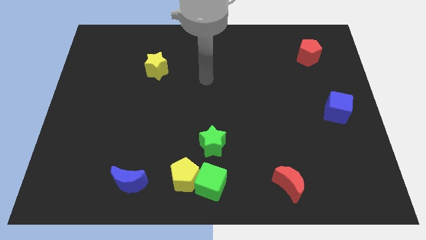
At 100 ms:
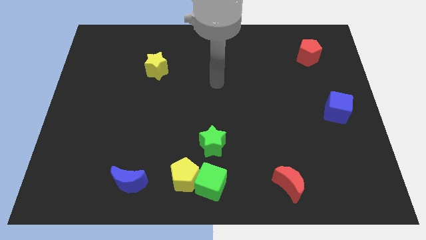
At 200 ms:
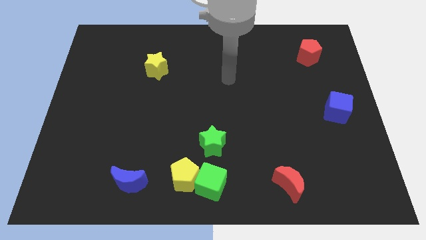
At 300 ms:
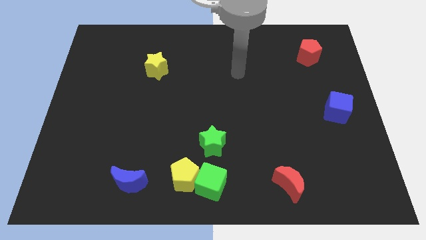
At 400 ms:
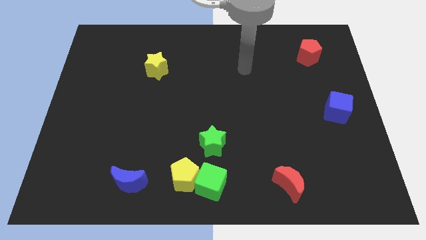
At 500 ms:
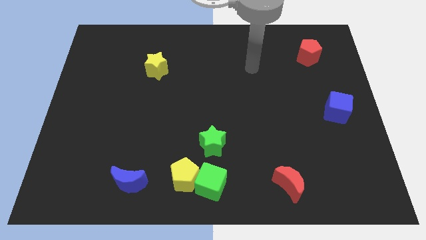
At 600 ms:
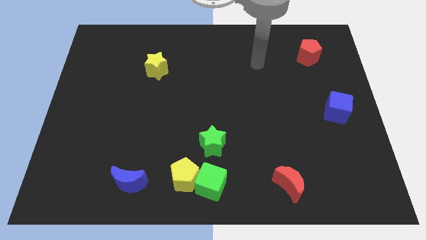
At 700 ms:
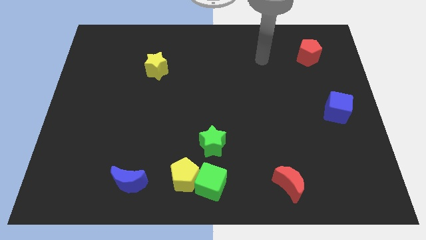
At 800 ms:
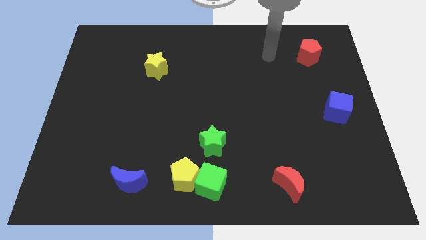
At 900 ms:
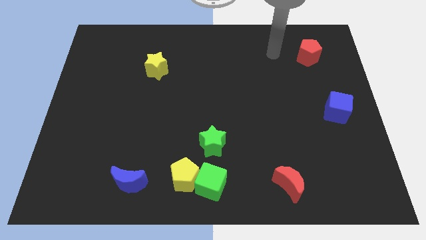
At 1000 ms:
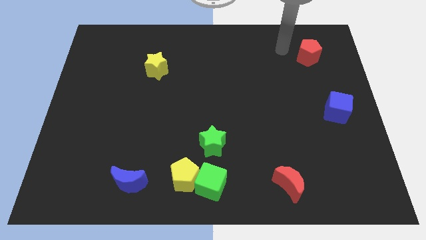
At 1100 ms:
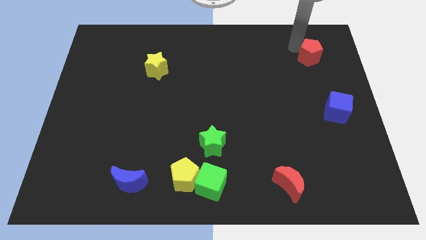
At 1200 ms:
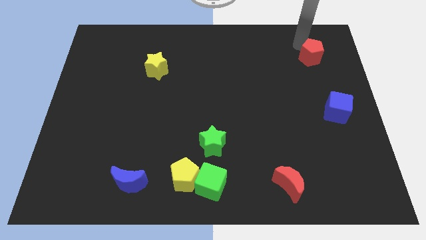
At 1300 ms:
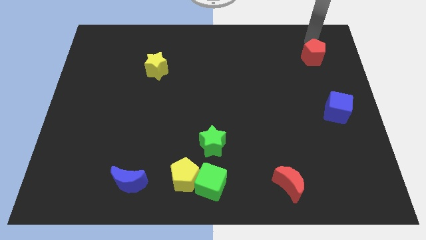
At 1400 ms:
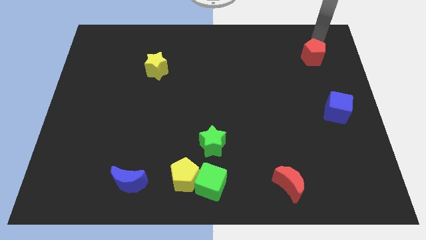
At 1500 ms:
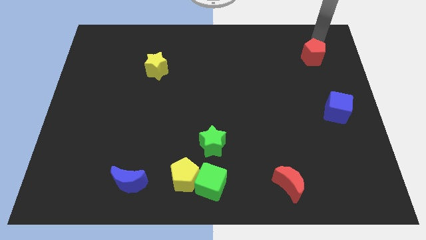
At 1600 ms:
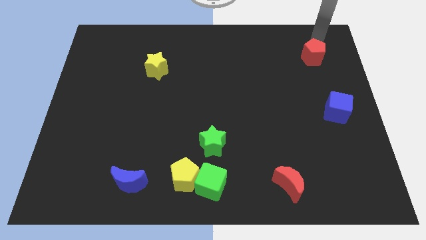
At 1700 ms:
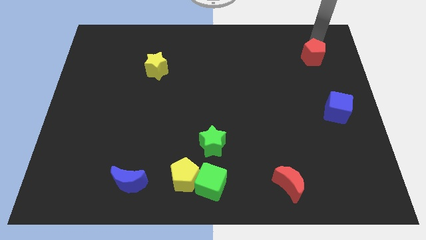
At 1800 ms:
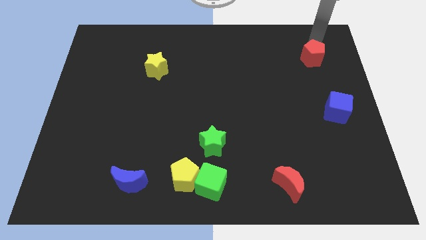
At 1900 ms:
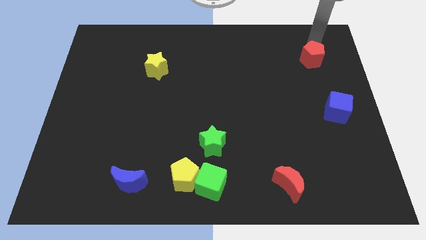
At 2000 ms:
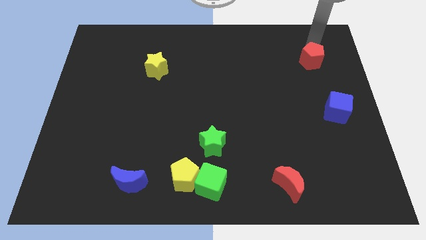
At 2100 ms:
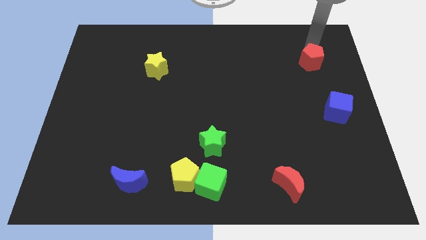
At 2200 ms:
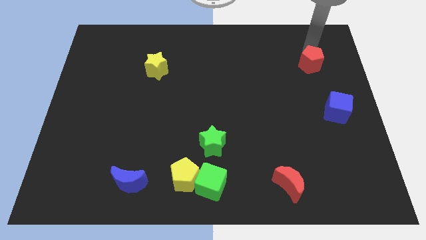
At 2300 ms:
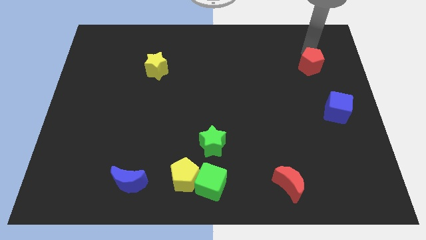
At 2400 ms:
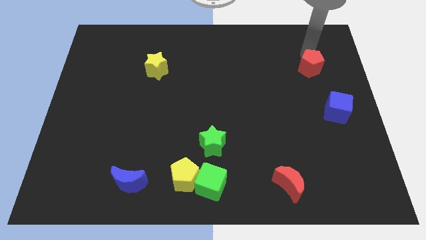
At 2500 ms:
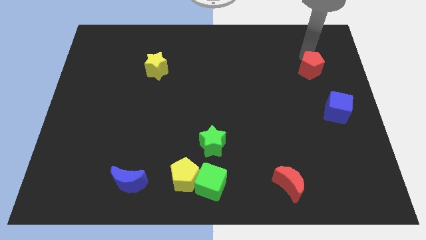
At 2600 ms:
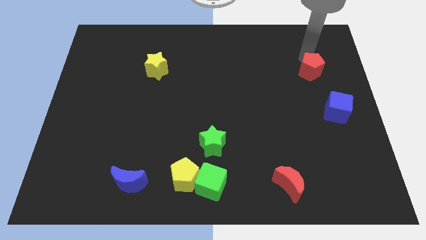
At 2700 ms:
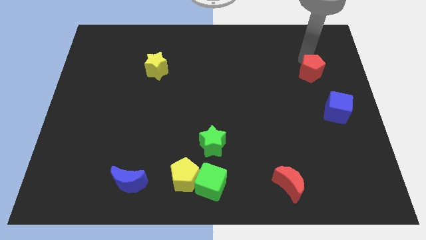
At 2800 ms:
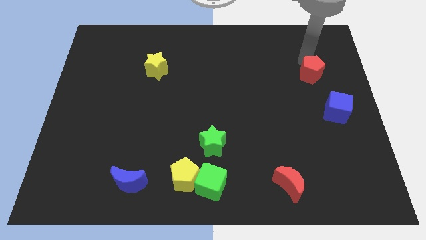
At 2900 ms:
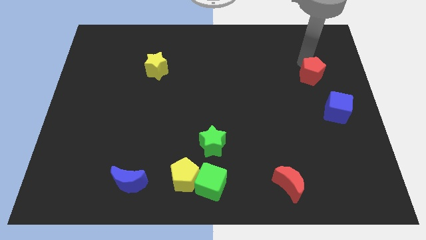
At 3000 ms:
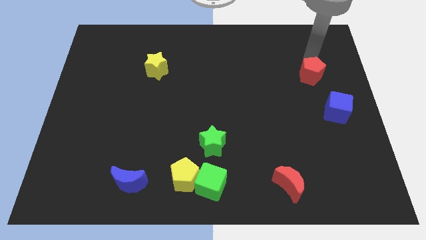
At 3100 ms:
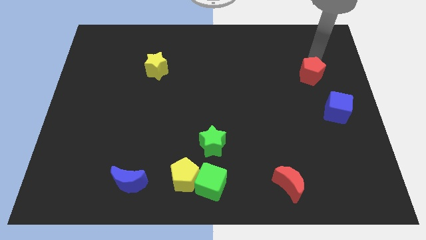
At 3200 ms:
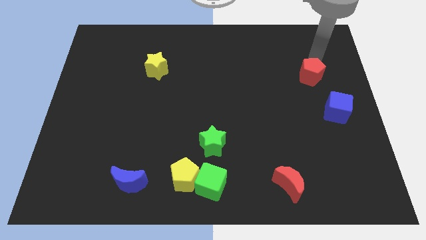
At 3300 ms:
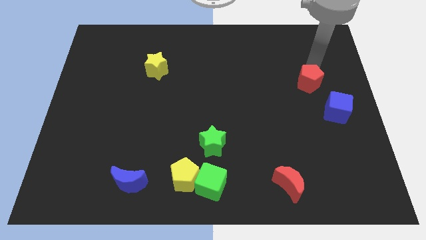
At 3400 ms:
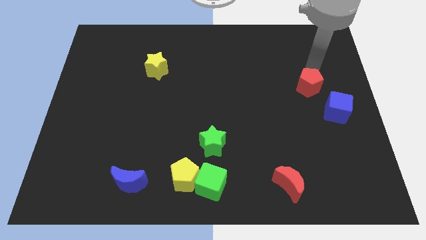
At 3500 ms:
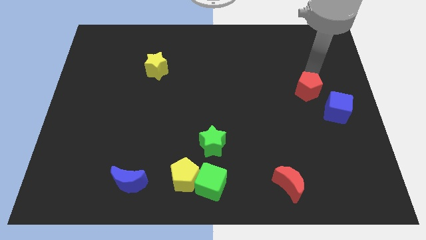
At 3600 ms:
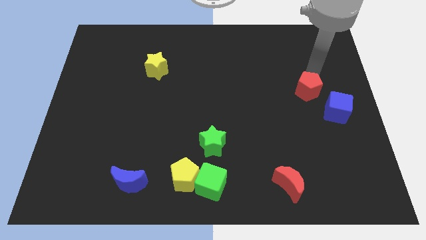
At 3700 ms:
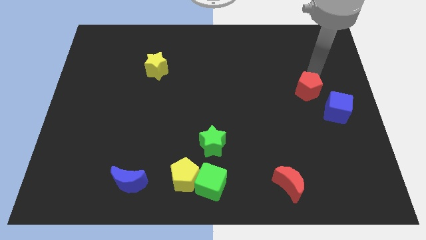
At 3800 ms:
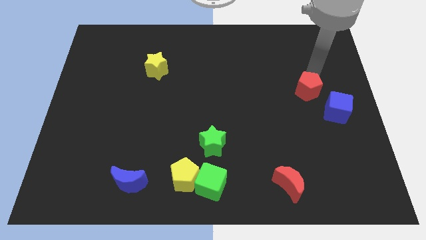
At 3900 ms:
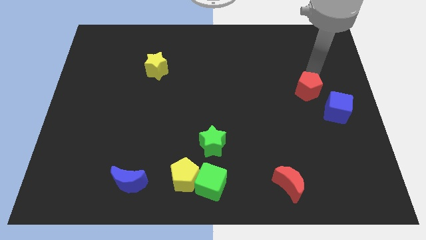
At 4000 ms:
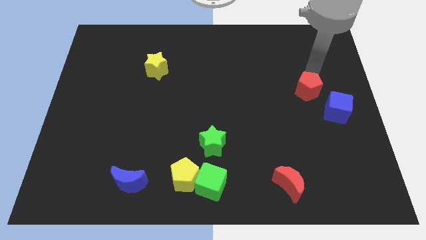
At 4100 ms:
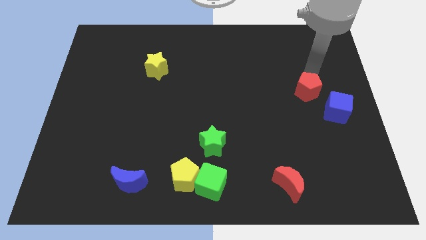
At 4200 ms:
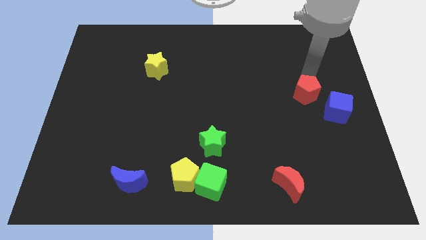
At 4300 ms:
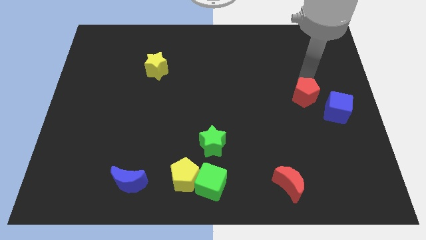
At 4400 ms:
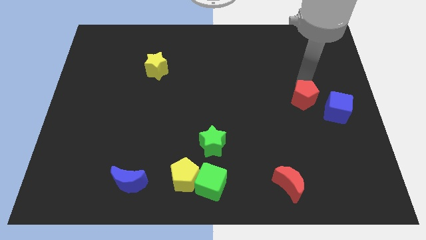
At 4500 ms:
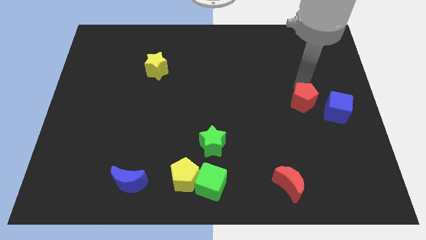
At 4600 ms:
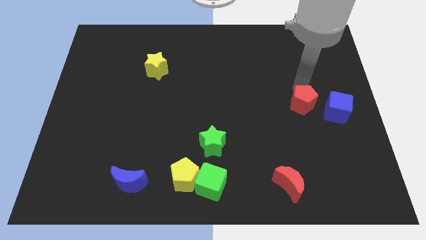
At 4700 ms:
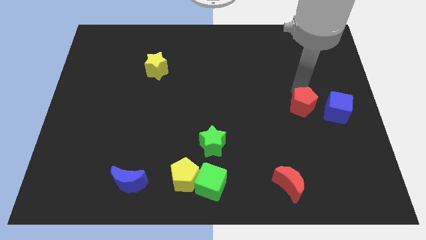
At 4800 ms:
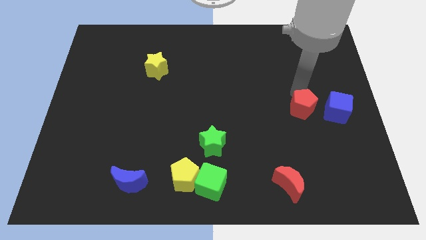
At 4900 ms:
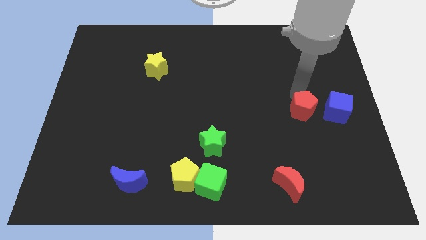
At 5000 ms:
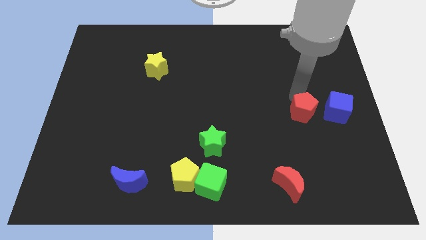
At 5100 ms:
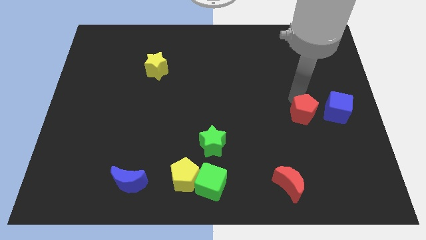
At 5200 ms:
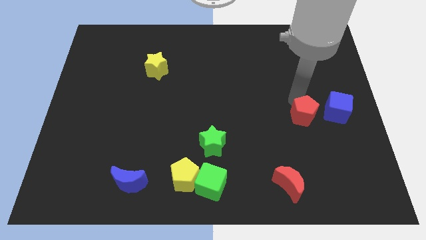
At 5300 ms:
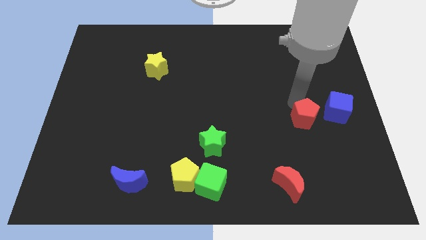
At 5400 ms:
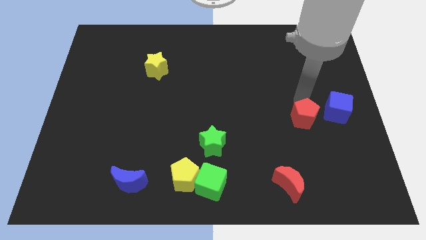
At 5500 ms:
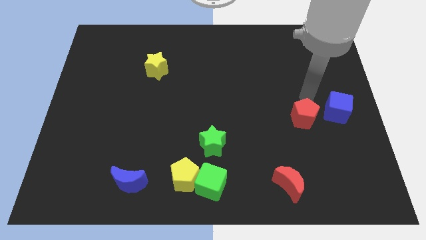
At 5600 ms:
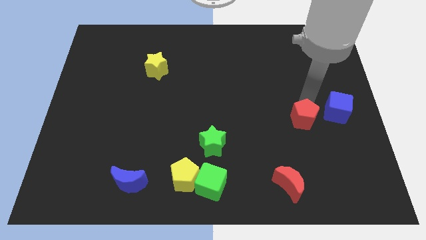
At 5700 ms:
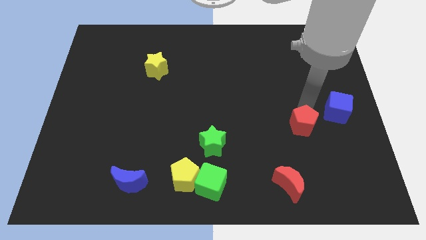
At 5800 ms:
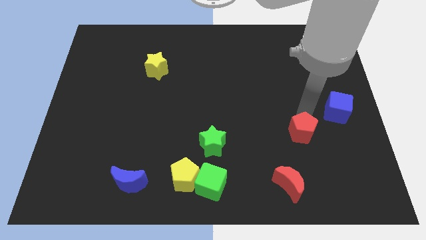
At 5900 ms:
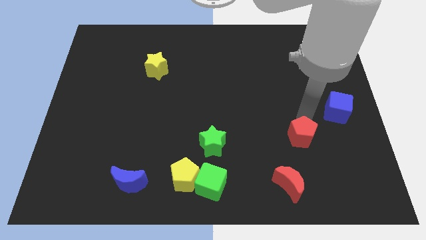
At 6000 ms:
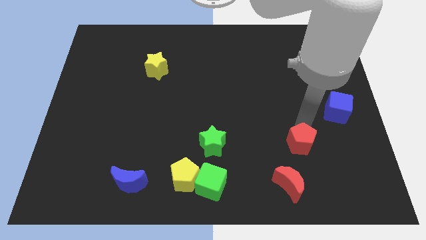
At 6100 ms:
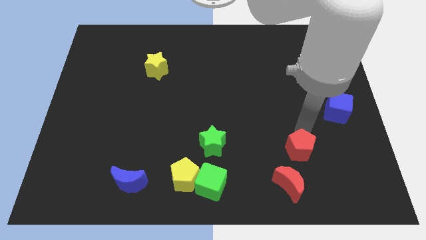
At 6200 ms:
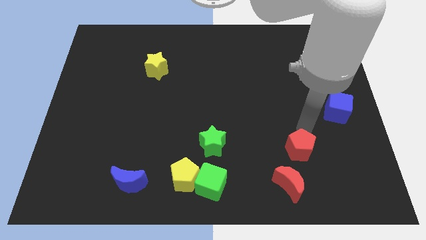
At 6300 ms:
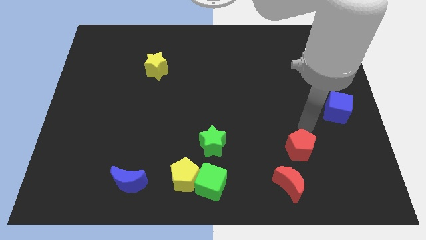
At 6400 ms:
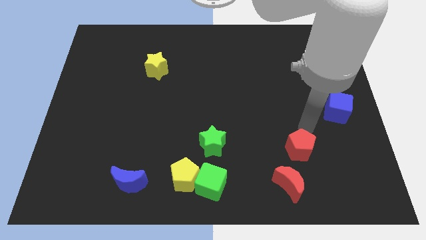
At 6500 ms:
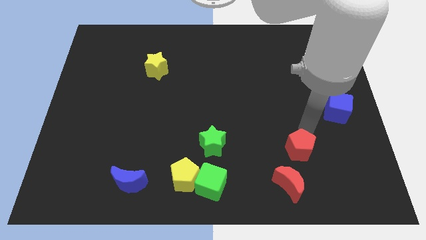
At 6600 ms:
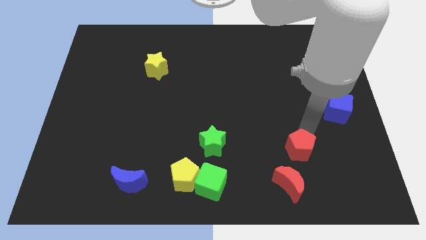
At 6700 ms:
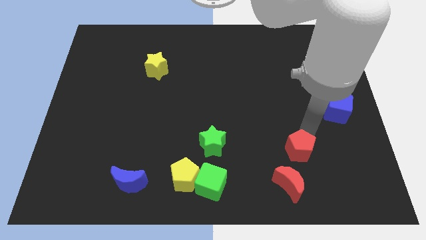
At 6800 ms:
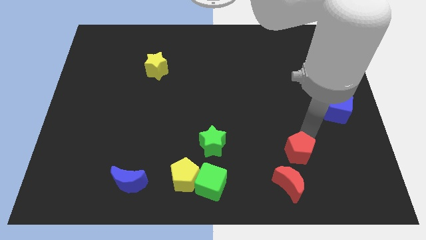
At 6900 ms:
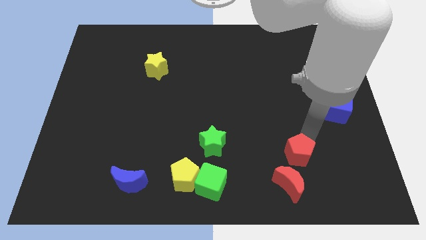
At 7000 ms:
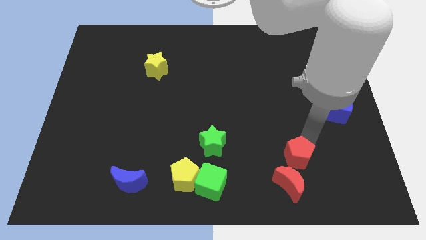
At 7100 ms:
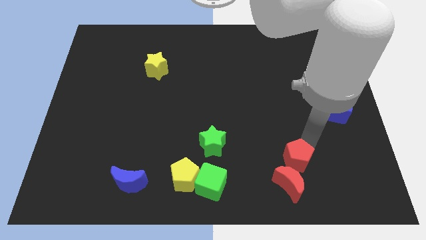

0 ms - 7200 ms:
move the red pentagon next to the red moon
